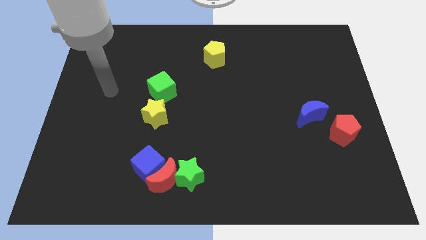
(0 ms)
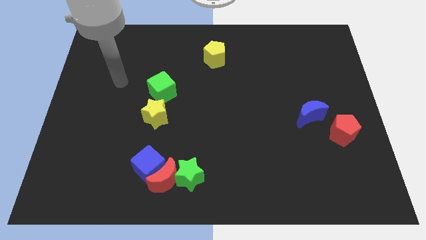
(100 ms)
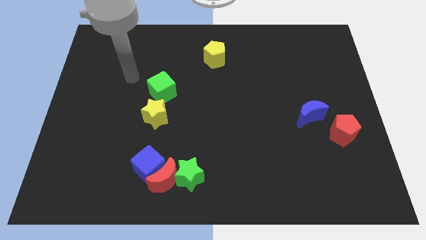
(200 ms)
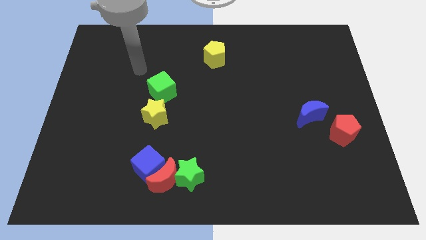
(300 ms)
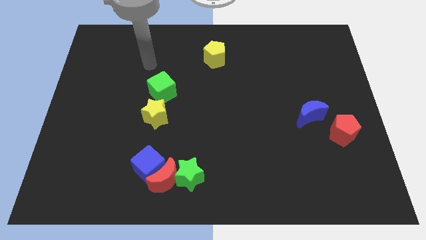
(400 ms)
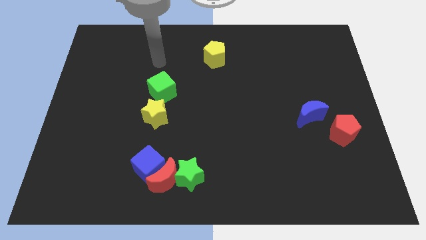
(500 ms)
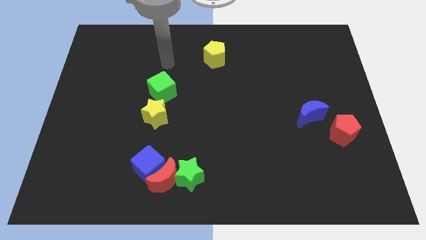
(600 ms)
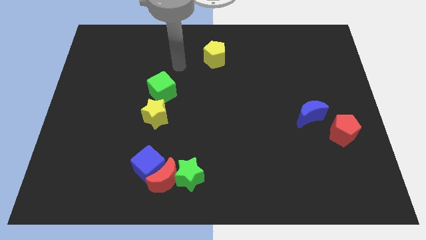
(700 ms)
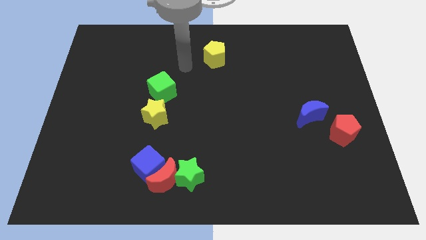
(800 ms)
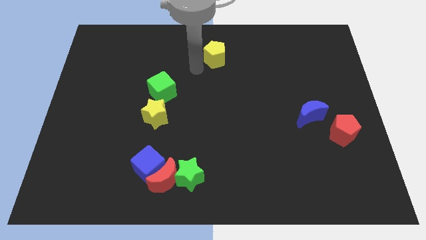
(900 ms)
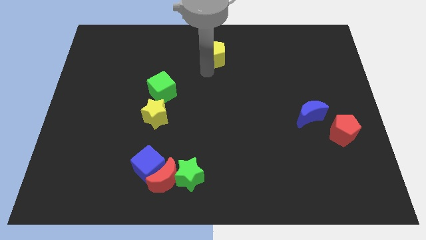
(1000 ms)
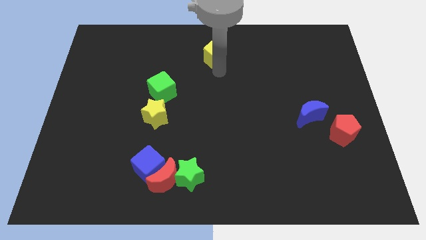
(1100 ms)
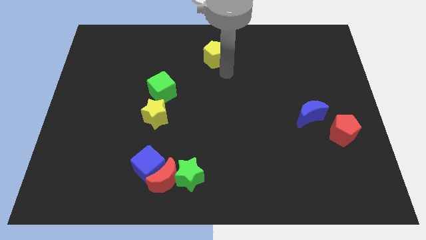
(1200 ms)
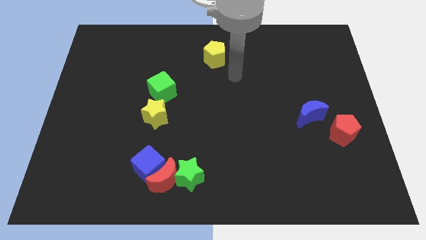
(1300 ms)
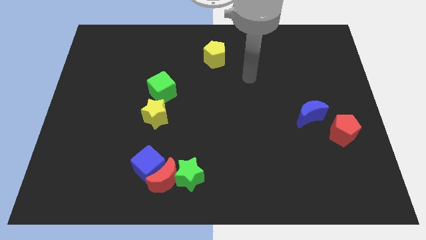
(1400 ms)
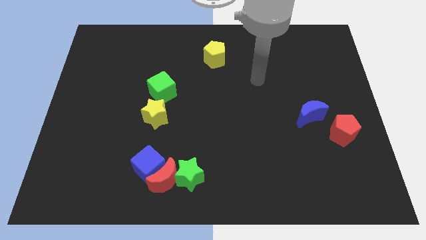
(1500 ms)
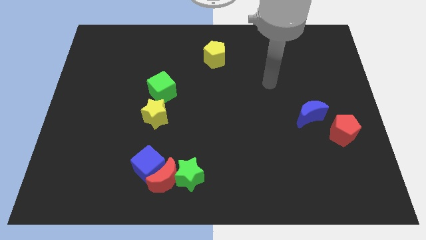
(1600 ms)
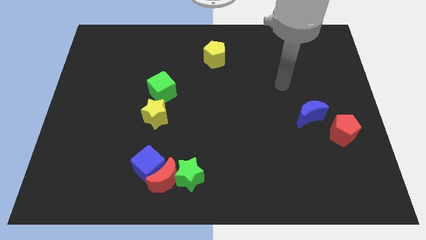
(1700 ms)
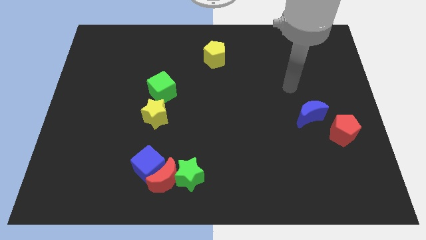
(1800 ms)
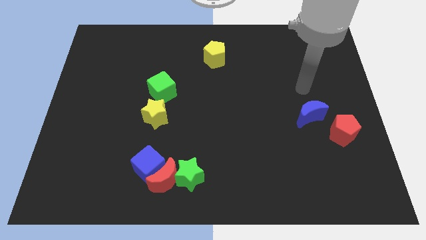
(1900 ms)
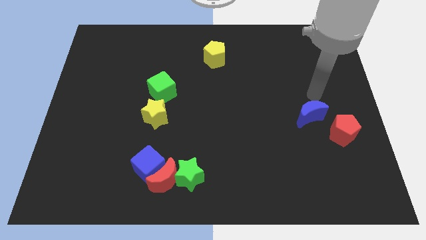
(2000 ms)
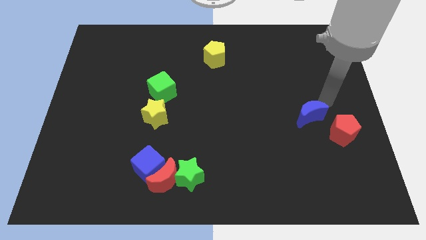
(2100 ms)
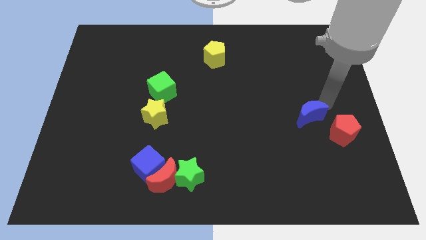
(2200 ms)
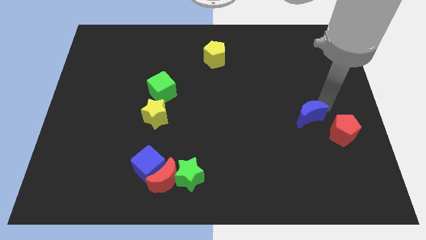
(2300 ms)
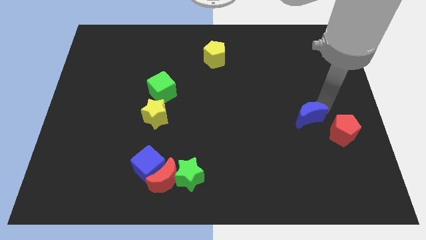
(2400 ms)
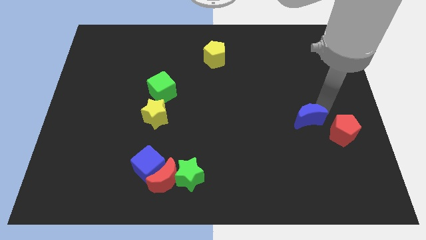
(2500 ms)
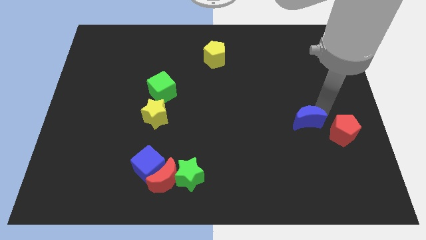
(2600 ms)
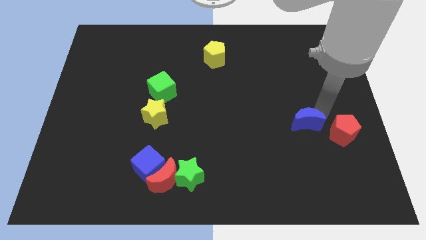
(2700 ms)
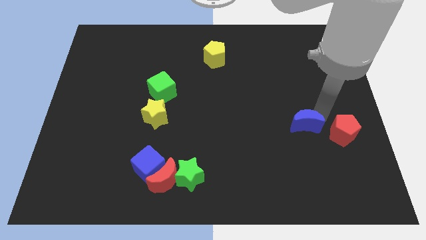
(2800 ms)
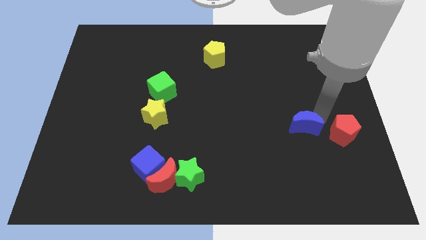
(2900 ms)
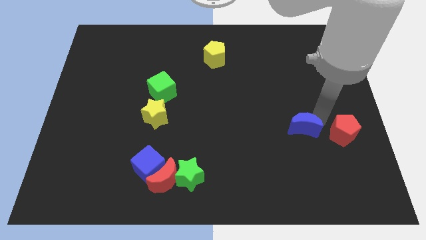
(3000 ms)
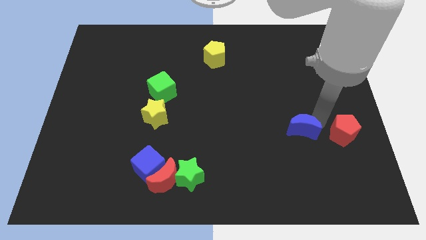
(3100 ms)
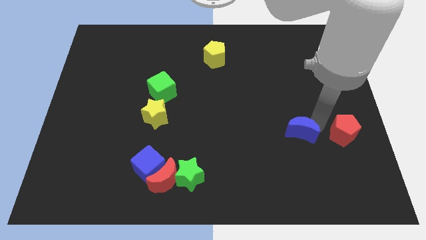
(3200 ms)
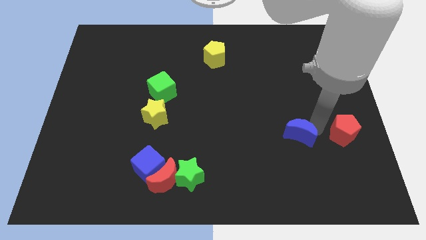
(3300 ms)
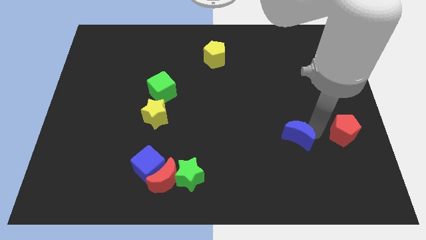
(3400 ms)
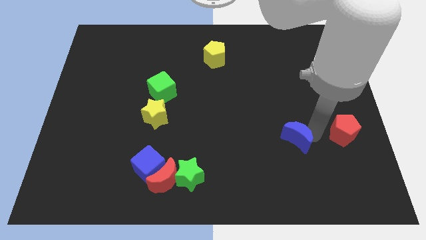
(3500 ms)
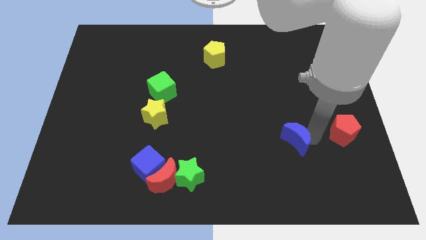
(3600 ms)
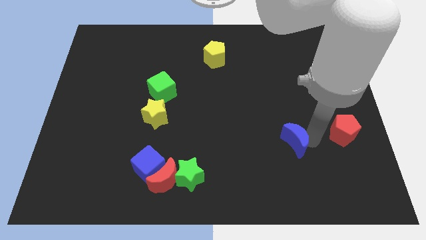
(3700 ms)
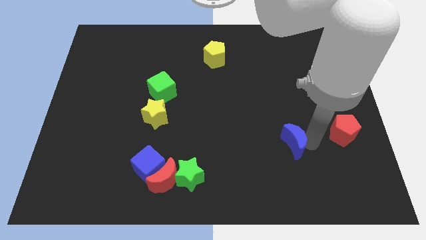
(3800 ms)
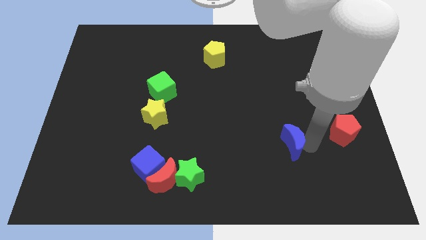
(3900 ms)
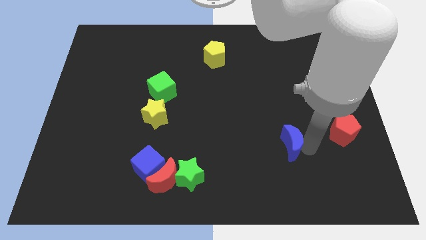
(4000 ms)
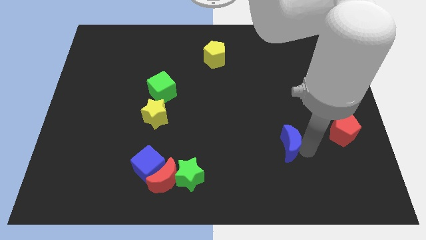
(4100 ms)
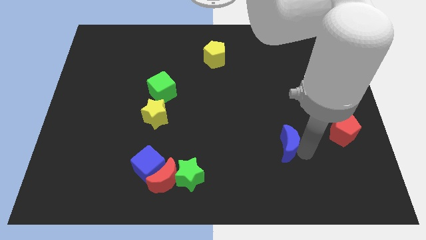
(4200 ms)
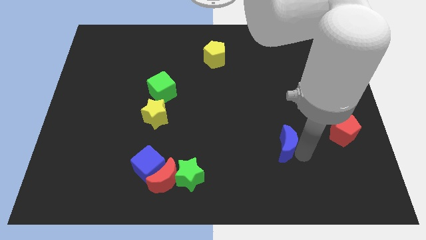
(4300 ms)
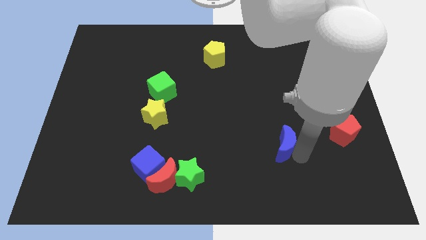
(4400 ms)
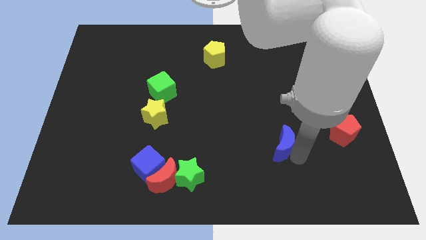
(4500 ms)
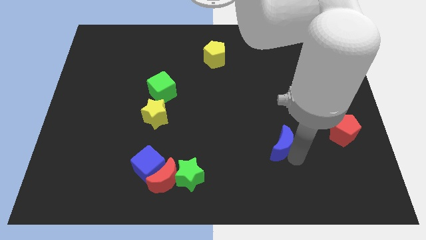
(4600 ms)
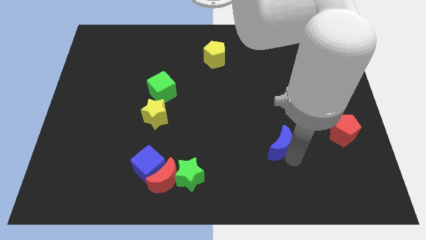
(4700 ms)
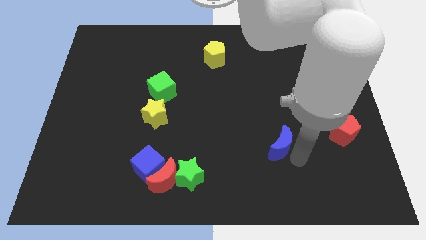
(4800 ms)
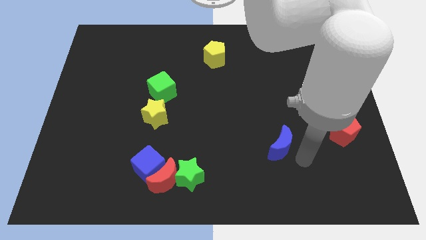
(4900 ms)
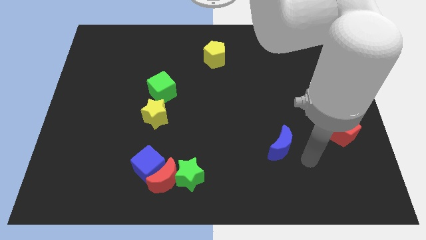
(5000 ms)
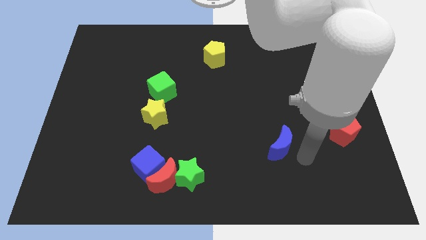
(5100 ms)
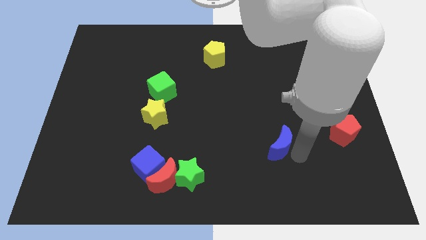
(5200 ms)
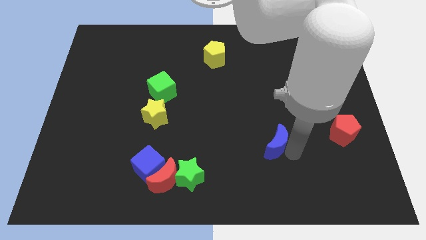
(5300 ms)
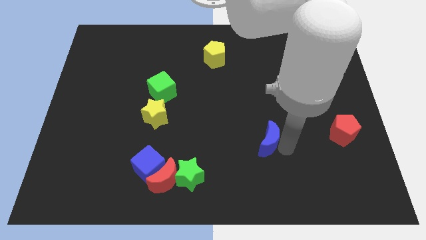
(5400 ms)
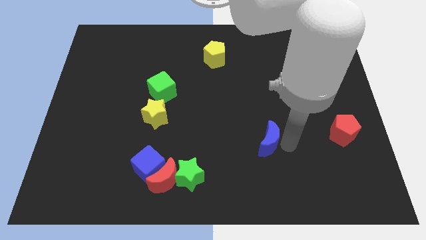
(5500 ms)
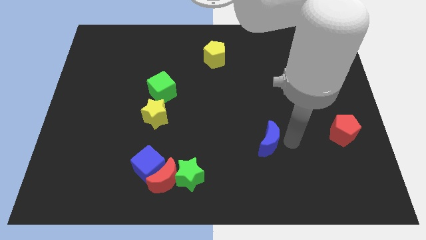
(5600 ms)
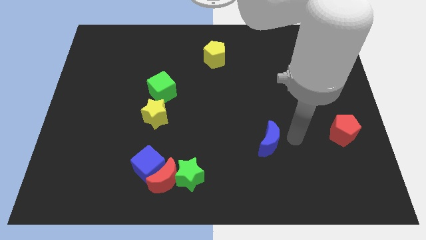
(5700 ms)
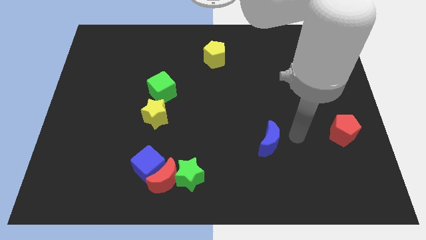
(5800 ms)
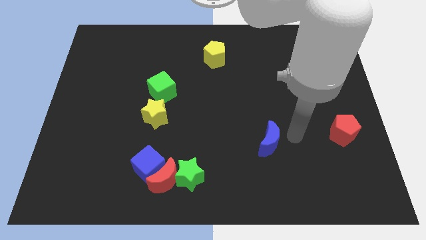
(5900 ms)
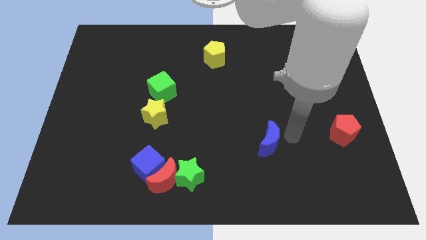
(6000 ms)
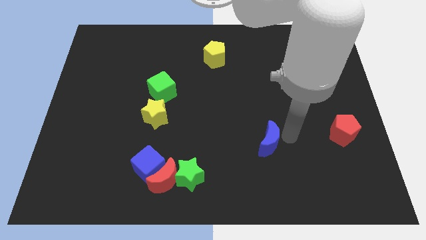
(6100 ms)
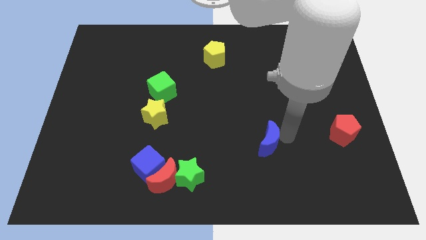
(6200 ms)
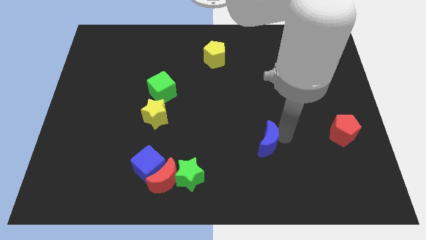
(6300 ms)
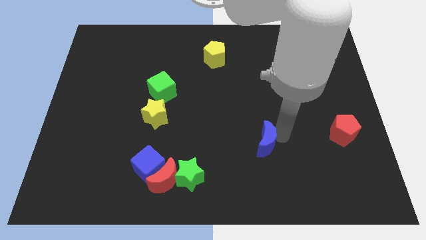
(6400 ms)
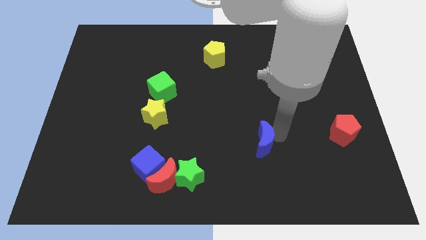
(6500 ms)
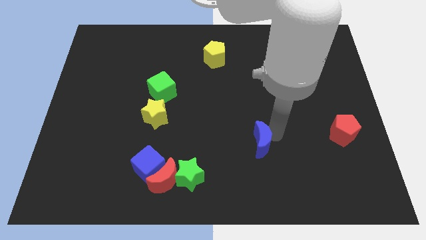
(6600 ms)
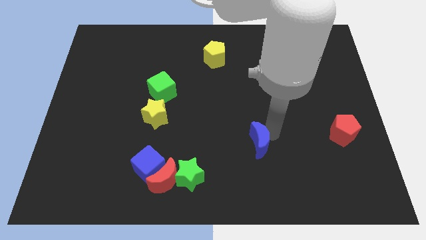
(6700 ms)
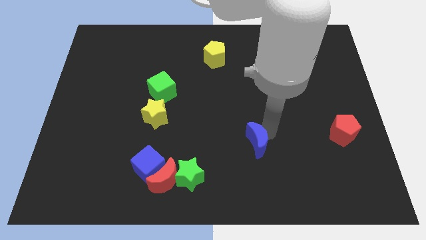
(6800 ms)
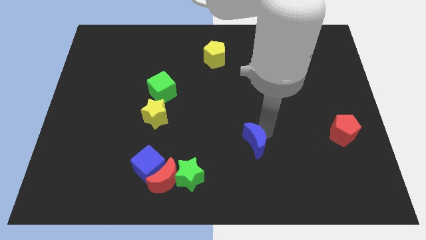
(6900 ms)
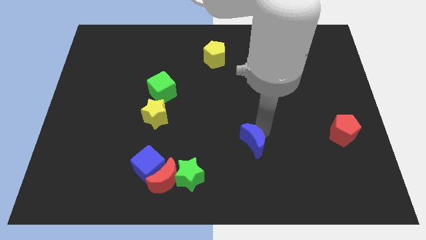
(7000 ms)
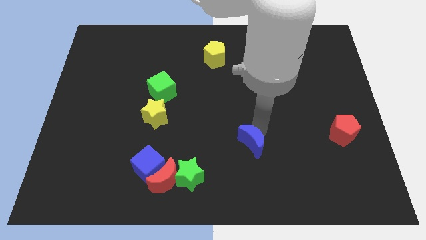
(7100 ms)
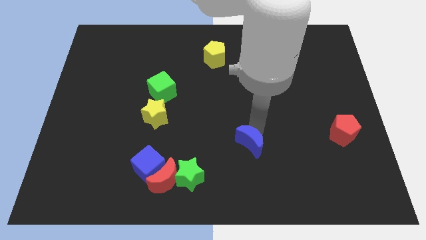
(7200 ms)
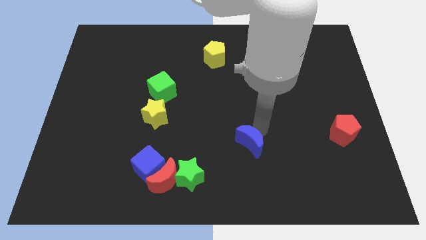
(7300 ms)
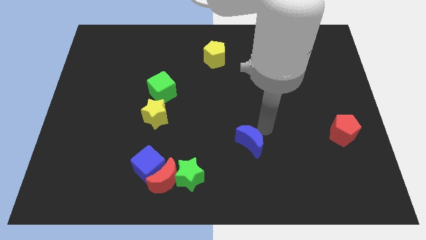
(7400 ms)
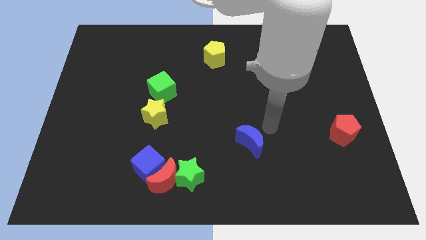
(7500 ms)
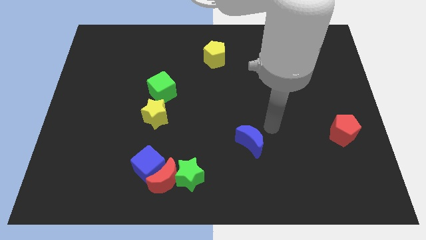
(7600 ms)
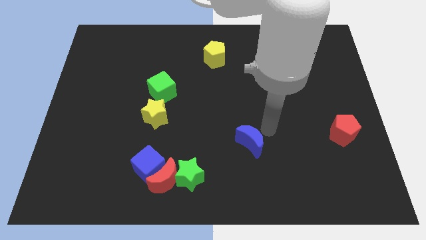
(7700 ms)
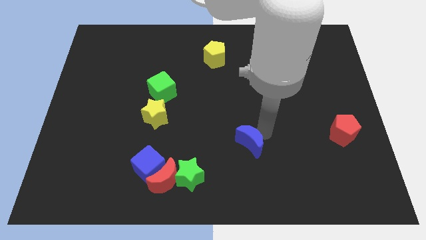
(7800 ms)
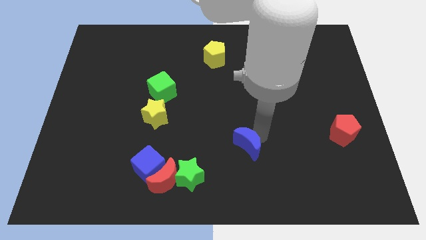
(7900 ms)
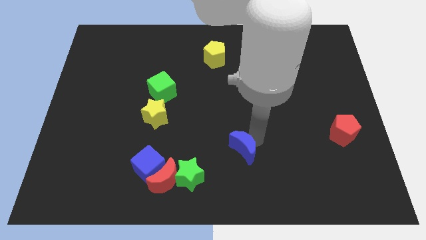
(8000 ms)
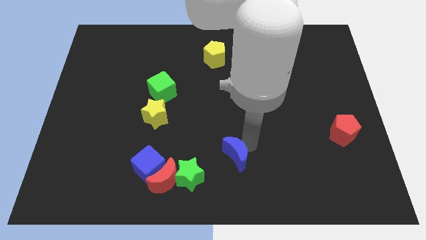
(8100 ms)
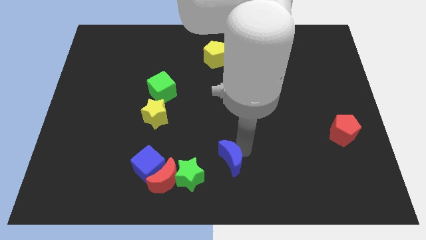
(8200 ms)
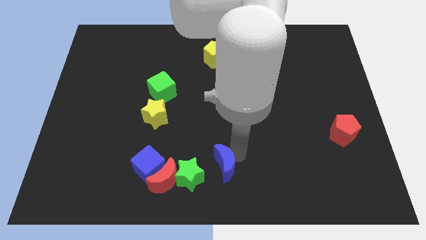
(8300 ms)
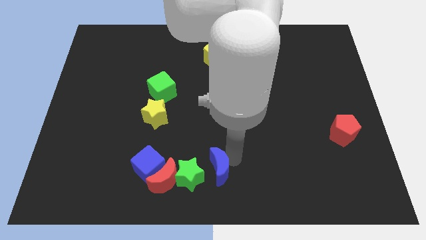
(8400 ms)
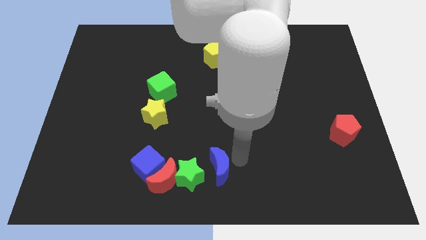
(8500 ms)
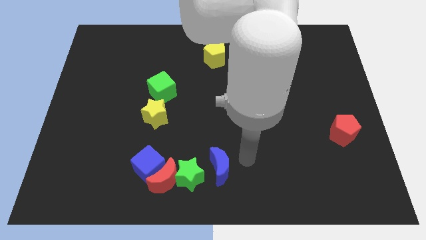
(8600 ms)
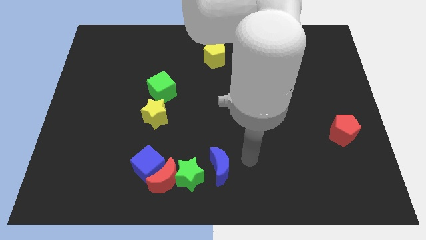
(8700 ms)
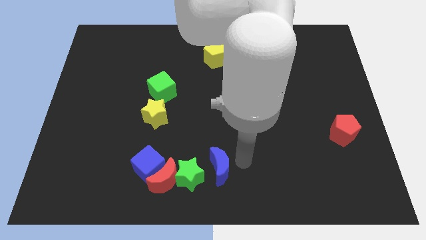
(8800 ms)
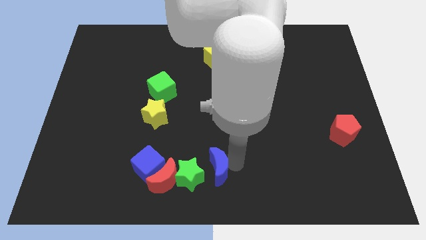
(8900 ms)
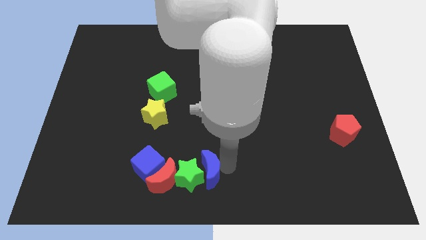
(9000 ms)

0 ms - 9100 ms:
push the blue moon to the green star
